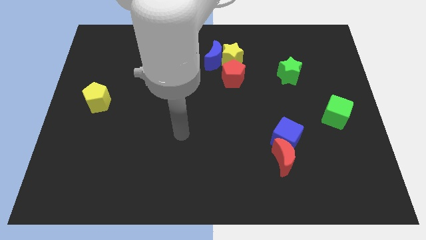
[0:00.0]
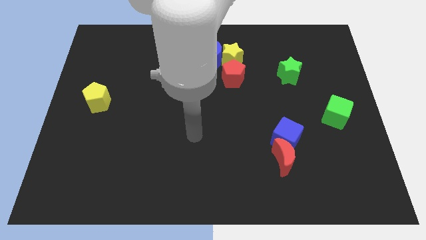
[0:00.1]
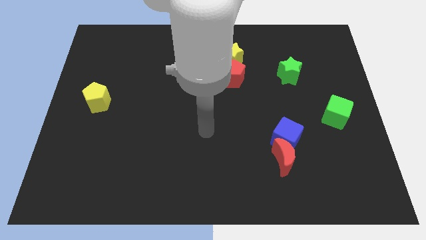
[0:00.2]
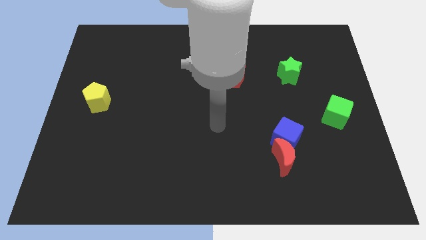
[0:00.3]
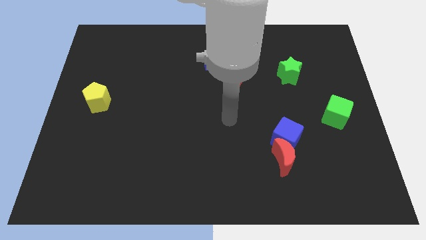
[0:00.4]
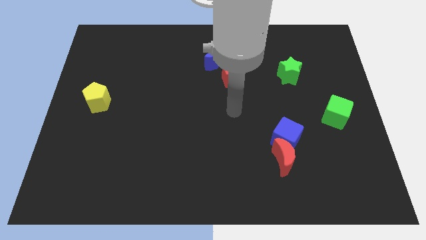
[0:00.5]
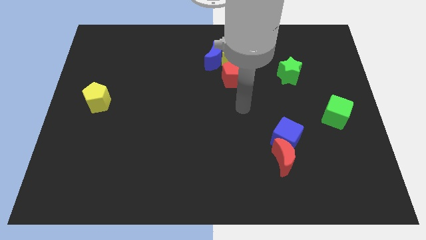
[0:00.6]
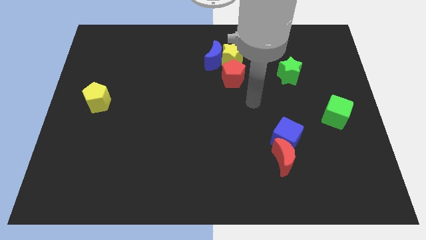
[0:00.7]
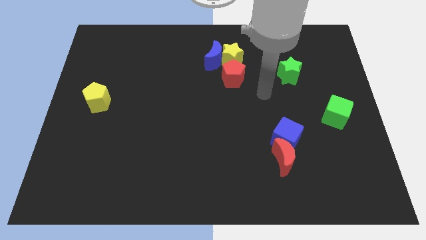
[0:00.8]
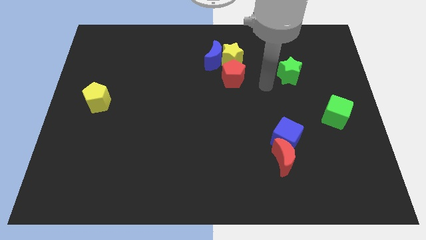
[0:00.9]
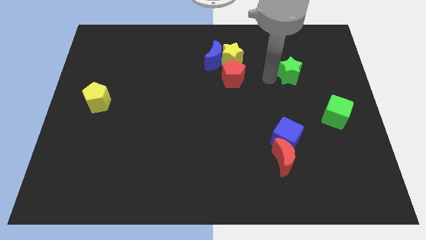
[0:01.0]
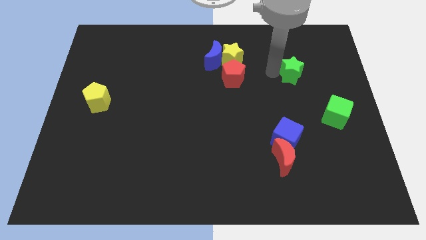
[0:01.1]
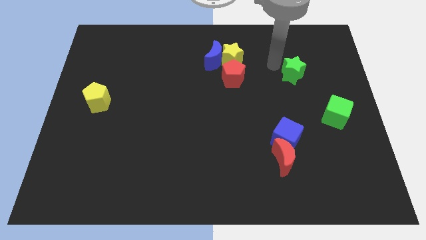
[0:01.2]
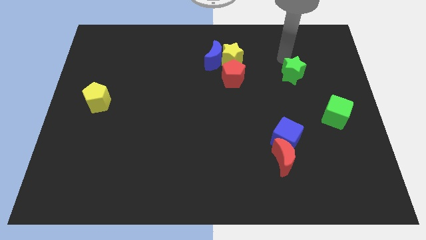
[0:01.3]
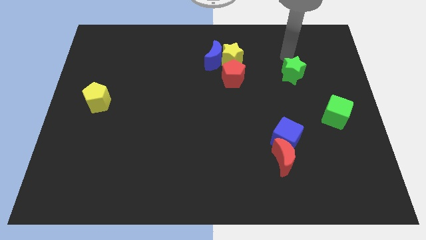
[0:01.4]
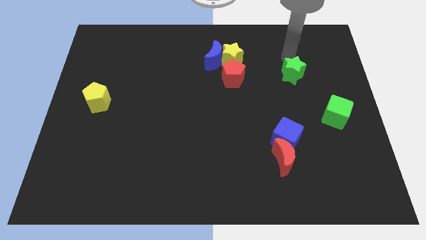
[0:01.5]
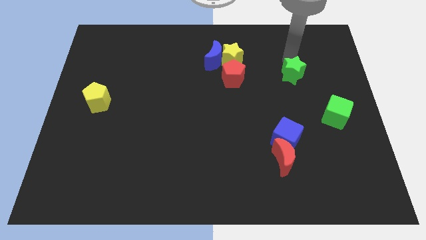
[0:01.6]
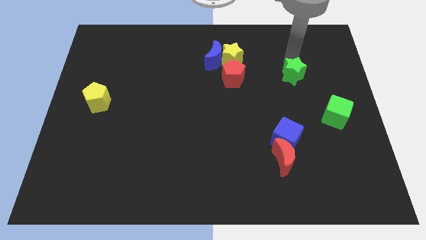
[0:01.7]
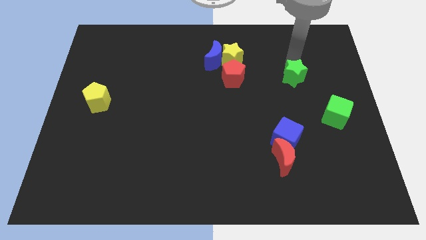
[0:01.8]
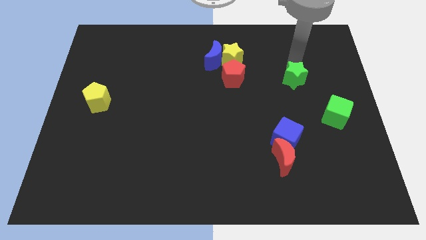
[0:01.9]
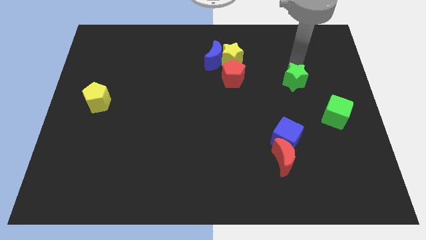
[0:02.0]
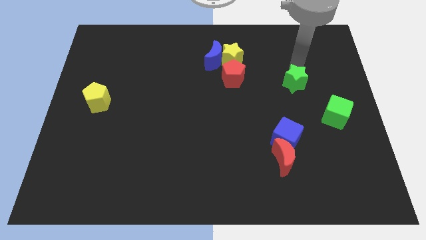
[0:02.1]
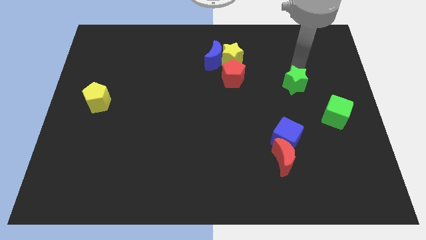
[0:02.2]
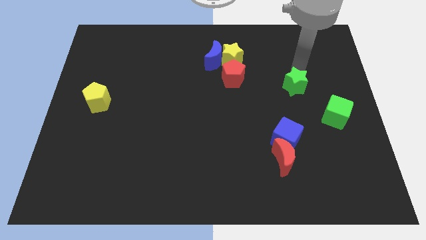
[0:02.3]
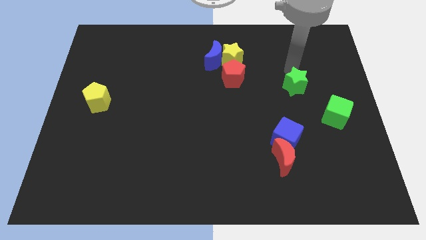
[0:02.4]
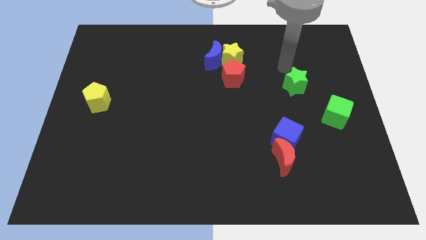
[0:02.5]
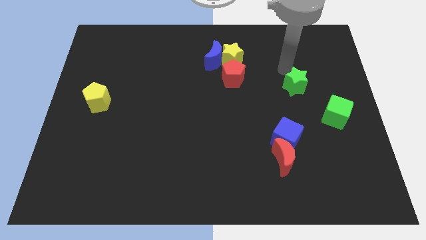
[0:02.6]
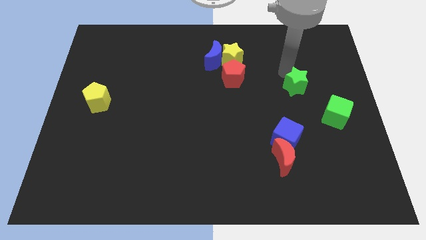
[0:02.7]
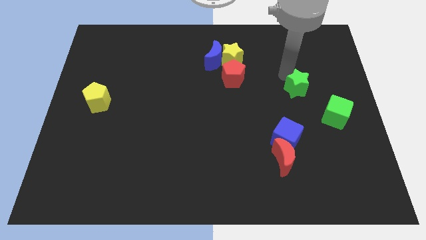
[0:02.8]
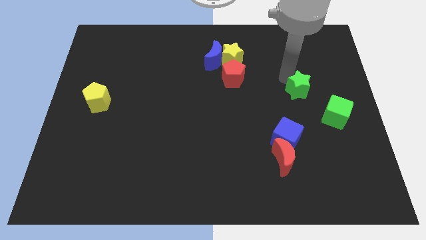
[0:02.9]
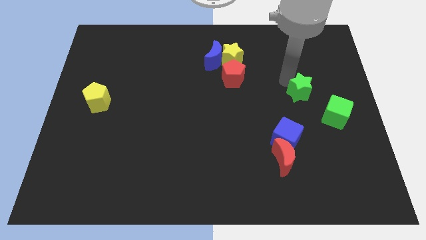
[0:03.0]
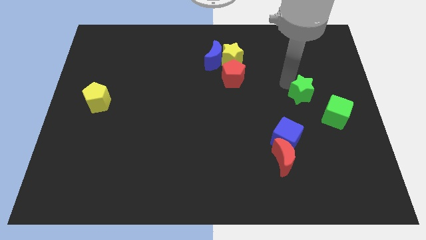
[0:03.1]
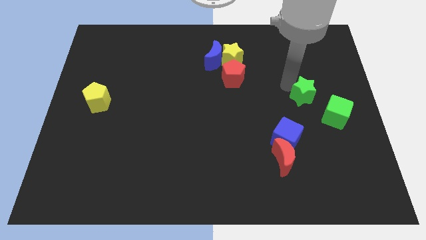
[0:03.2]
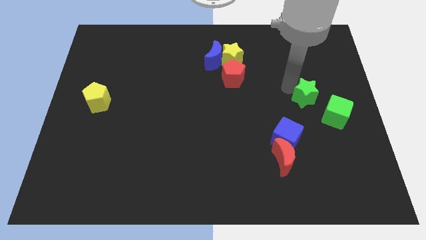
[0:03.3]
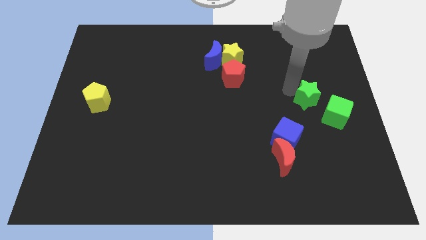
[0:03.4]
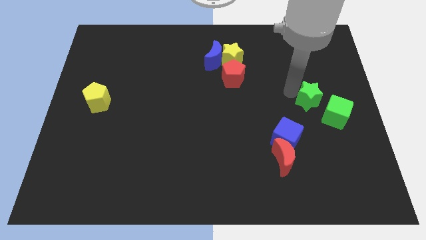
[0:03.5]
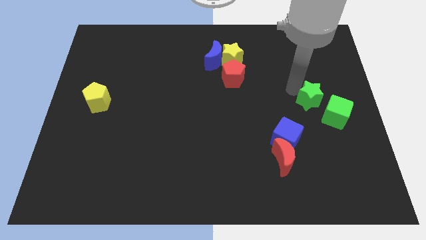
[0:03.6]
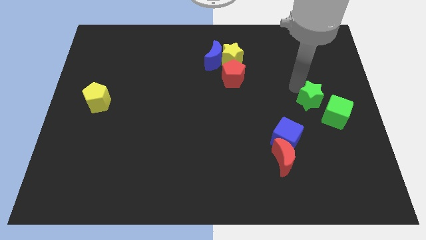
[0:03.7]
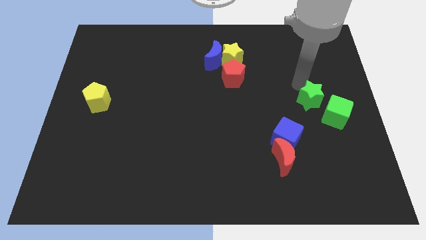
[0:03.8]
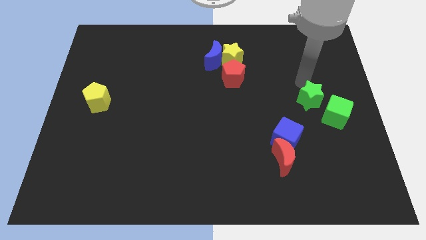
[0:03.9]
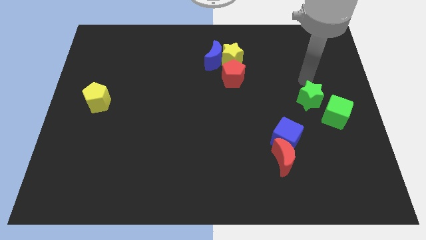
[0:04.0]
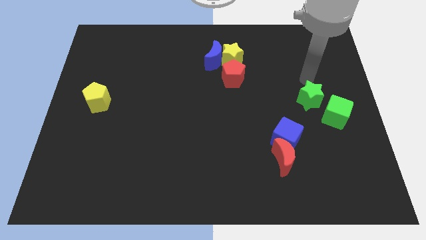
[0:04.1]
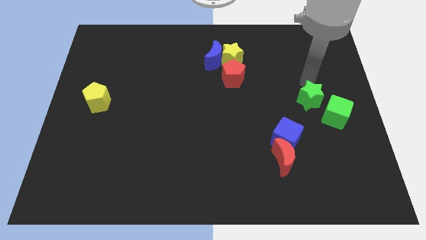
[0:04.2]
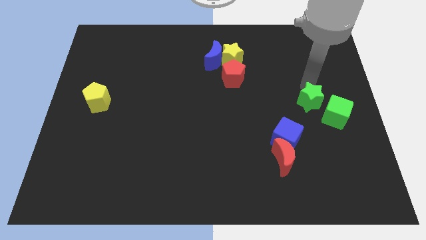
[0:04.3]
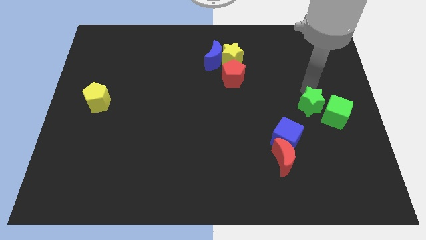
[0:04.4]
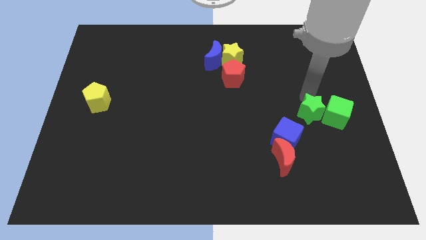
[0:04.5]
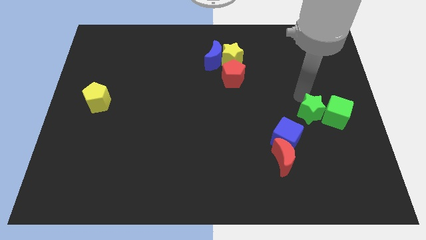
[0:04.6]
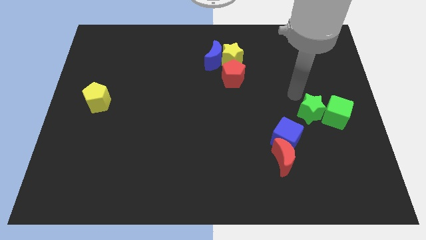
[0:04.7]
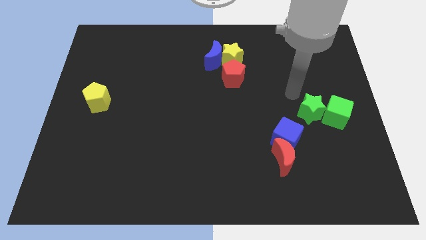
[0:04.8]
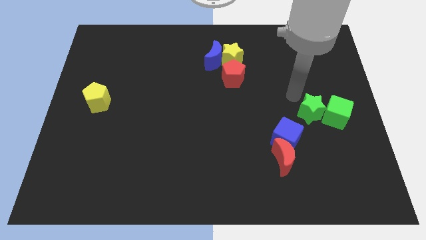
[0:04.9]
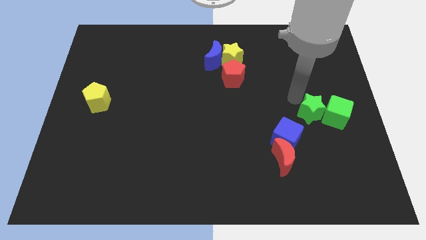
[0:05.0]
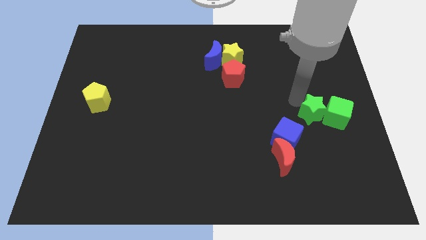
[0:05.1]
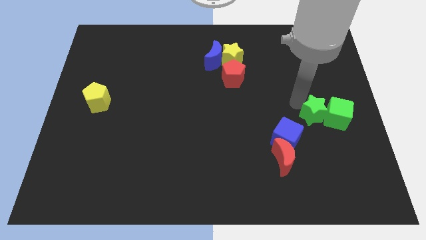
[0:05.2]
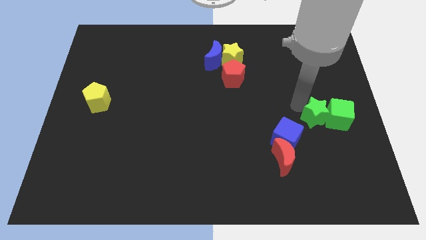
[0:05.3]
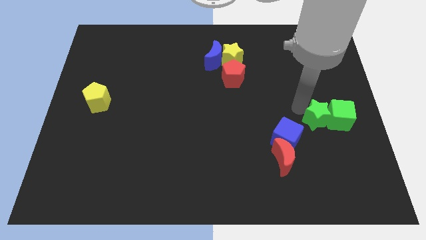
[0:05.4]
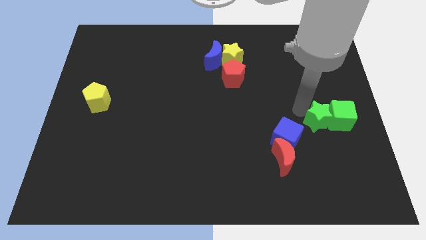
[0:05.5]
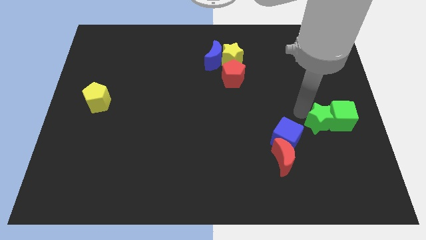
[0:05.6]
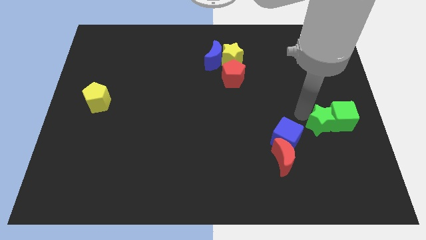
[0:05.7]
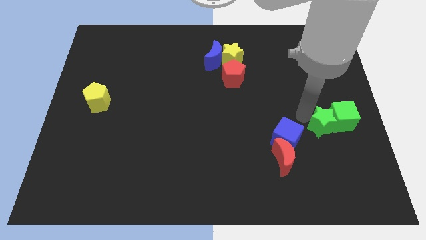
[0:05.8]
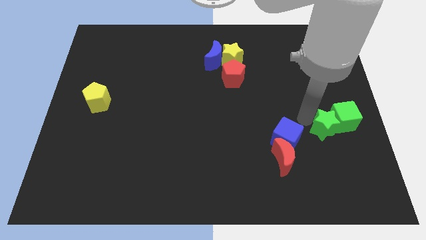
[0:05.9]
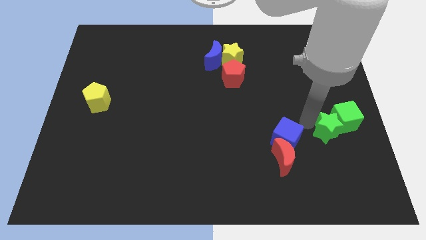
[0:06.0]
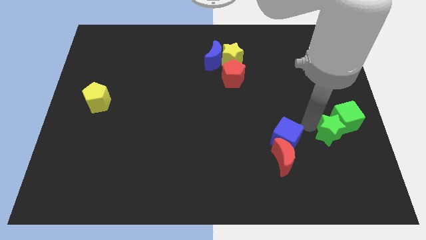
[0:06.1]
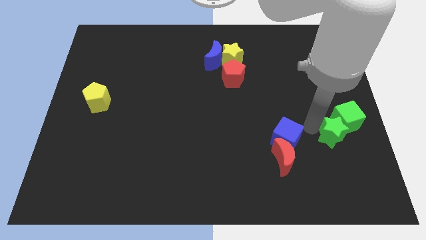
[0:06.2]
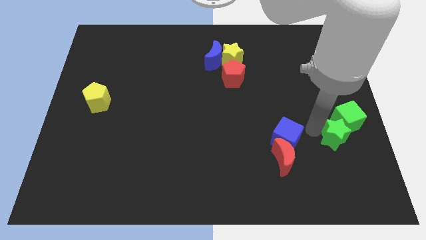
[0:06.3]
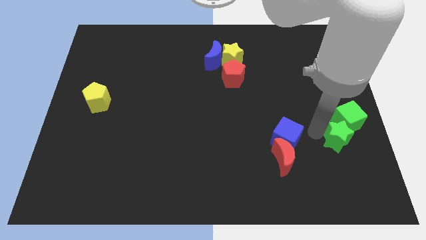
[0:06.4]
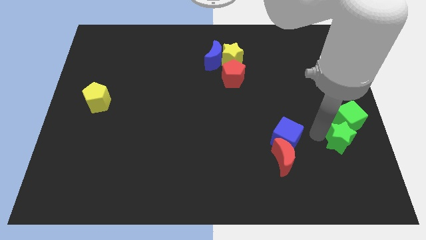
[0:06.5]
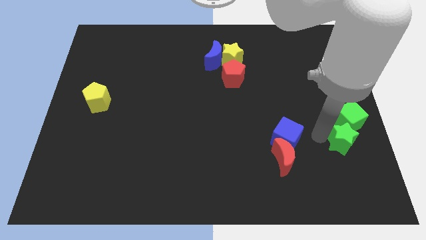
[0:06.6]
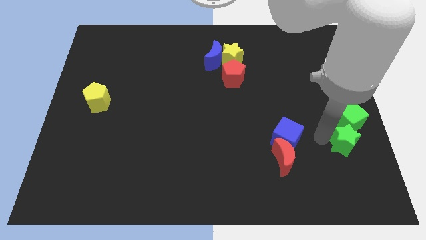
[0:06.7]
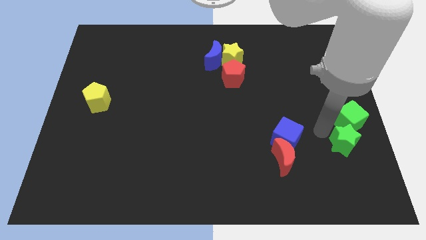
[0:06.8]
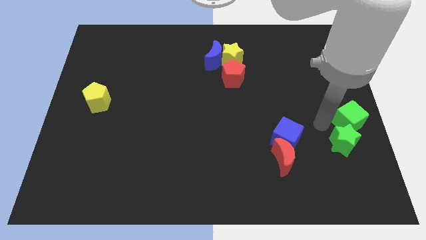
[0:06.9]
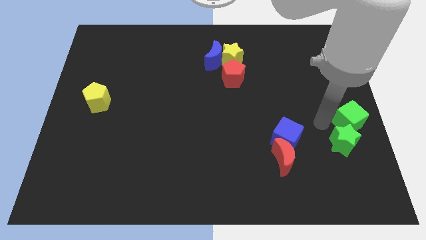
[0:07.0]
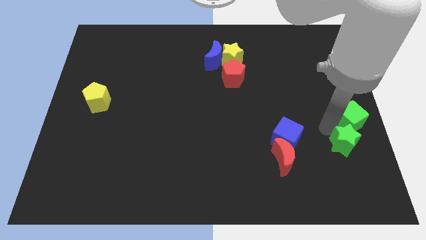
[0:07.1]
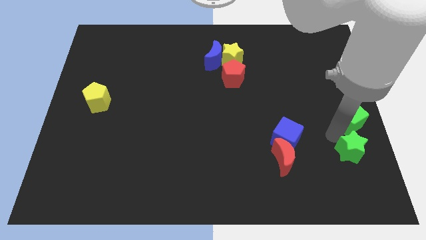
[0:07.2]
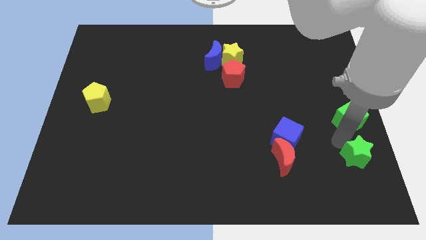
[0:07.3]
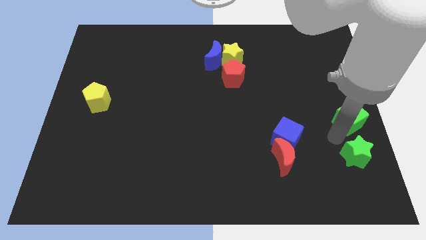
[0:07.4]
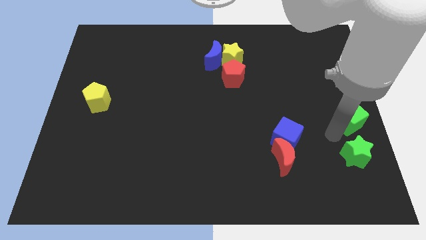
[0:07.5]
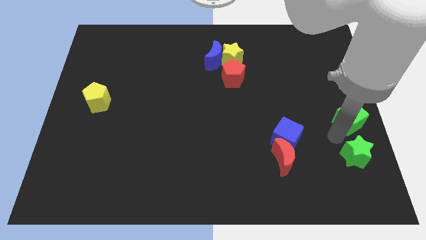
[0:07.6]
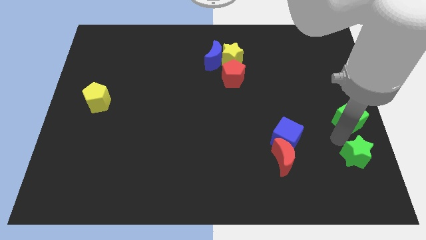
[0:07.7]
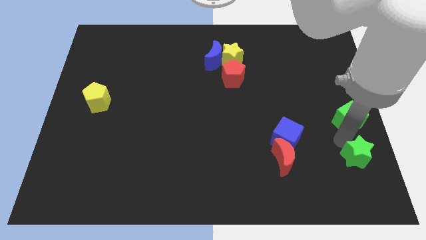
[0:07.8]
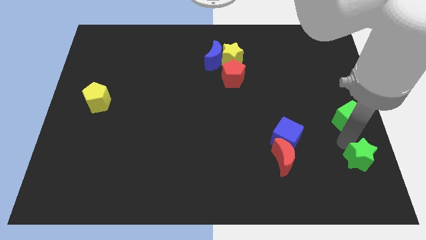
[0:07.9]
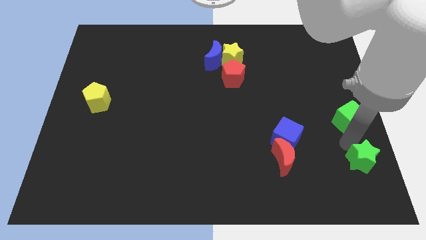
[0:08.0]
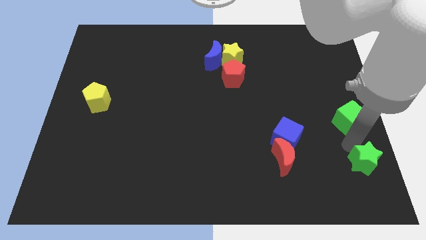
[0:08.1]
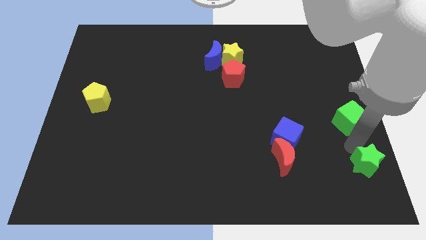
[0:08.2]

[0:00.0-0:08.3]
put the green star to the lower right corner
